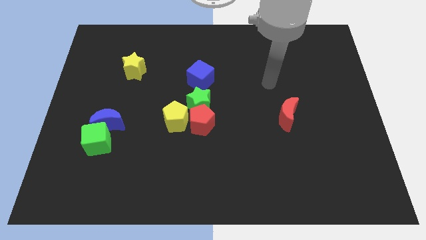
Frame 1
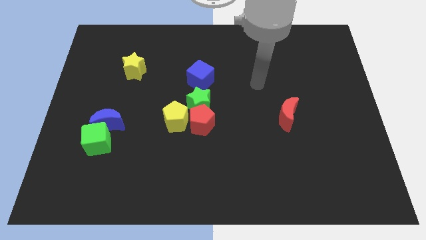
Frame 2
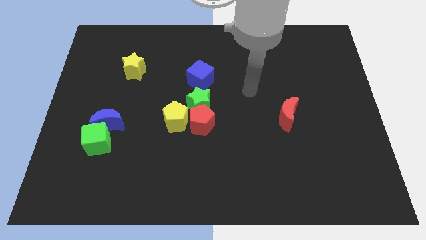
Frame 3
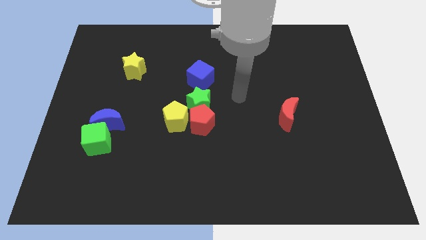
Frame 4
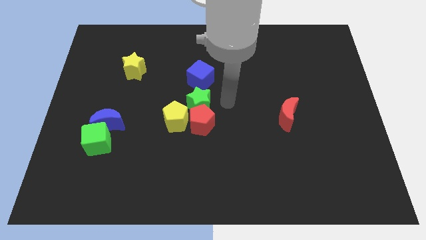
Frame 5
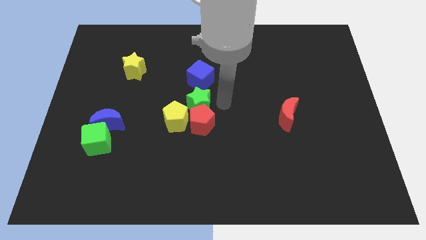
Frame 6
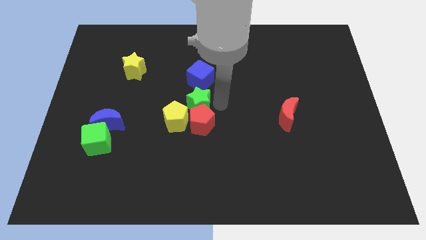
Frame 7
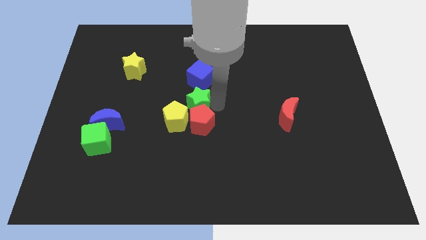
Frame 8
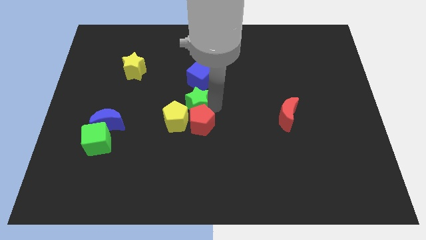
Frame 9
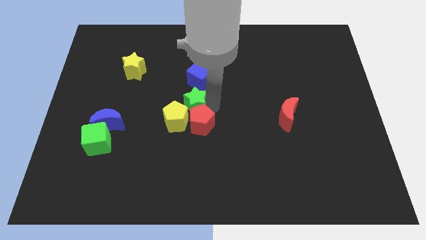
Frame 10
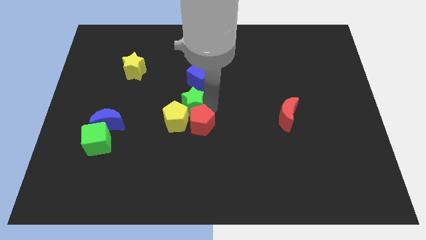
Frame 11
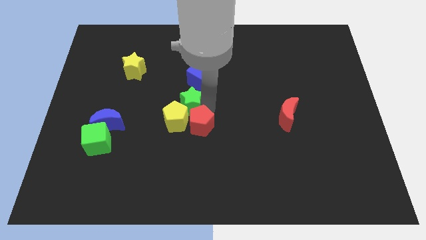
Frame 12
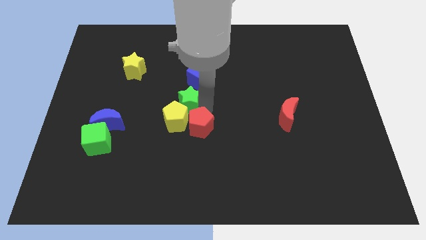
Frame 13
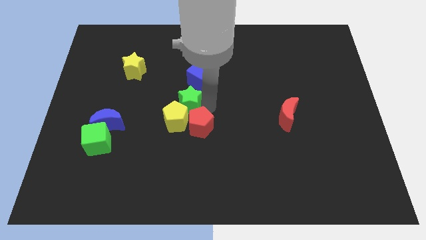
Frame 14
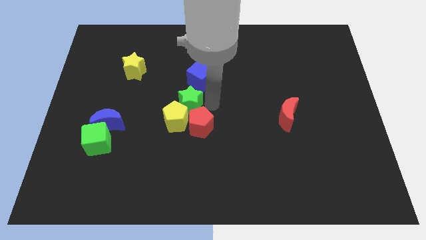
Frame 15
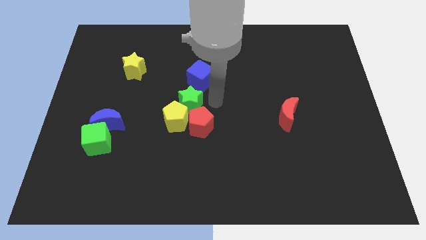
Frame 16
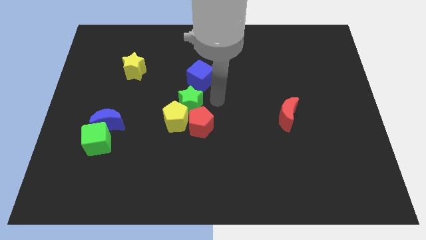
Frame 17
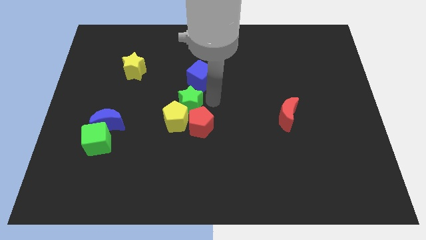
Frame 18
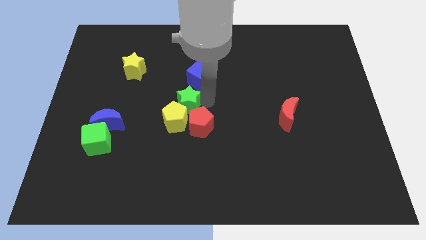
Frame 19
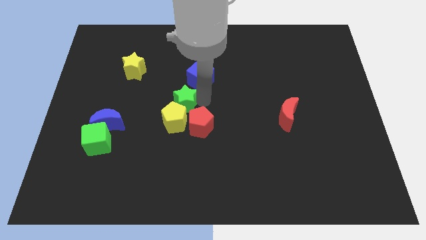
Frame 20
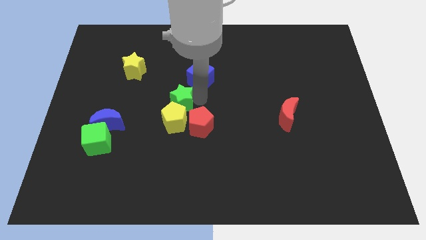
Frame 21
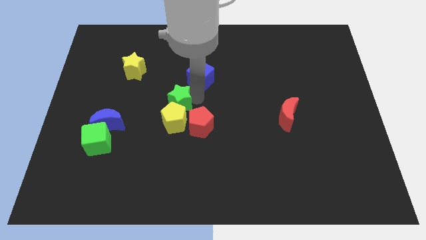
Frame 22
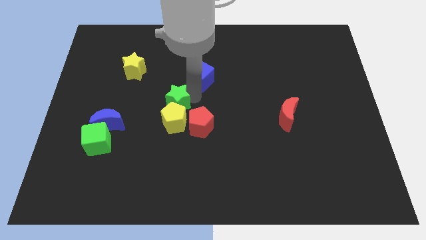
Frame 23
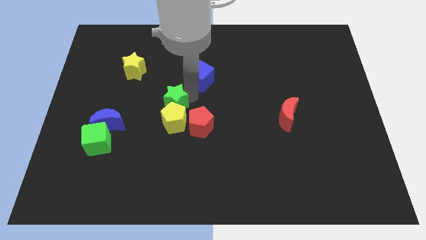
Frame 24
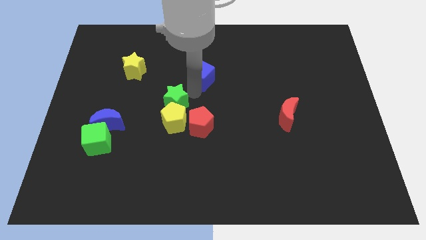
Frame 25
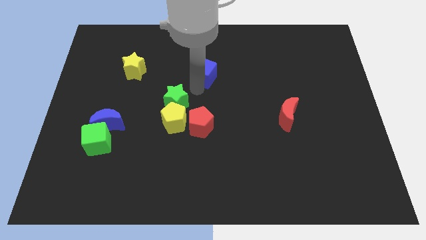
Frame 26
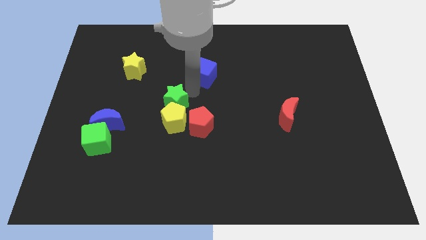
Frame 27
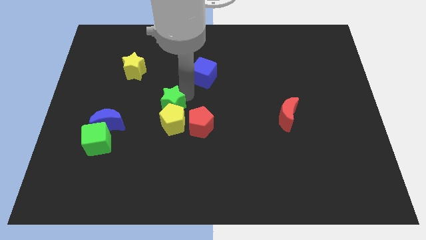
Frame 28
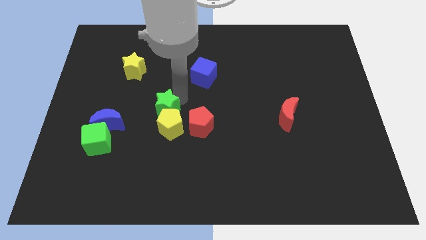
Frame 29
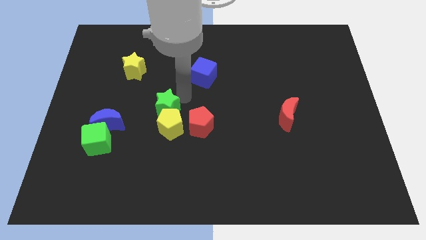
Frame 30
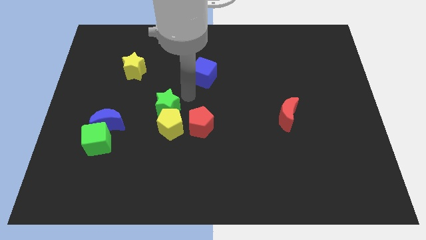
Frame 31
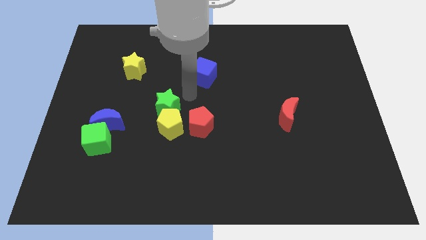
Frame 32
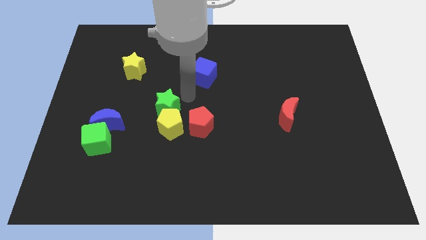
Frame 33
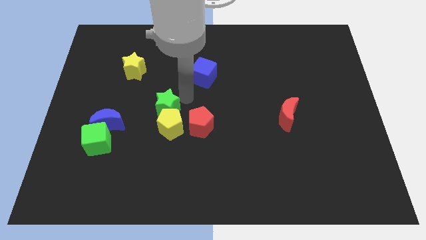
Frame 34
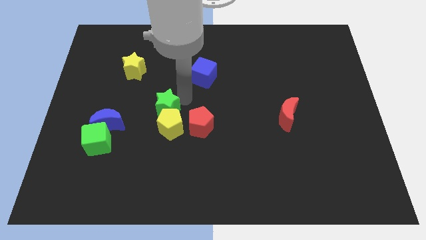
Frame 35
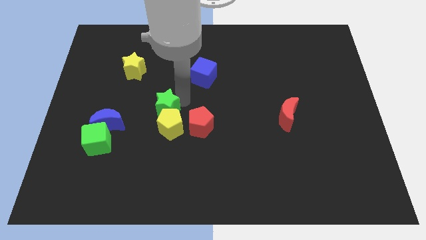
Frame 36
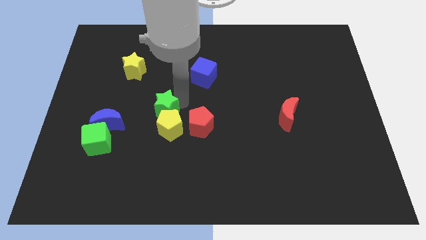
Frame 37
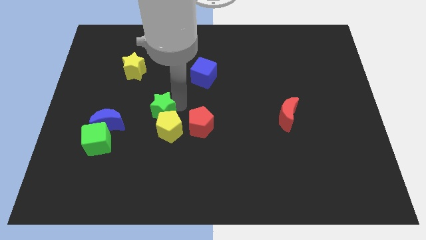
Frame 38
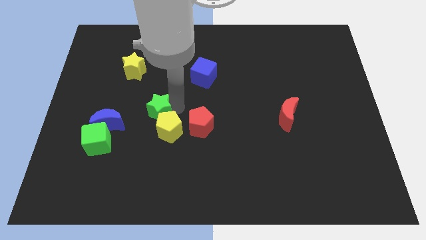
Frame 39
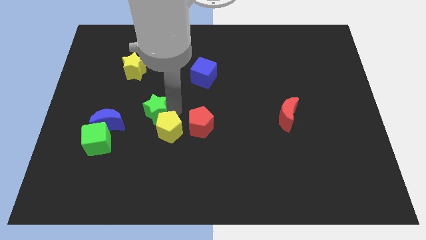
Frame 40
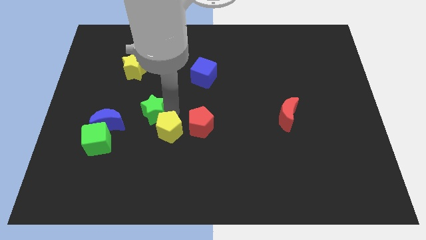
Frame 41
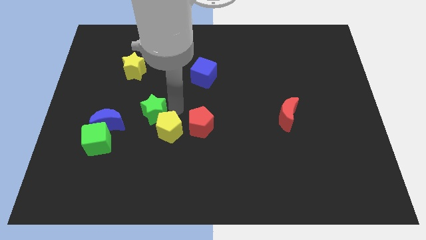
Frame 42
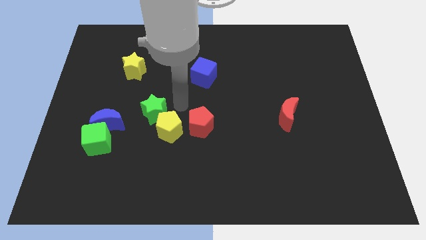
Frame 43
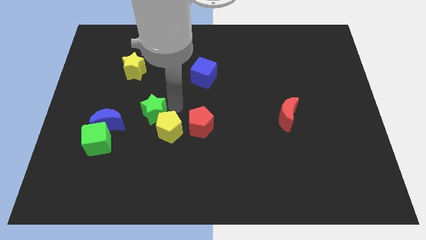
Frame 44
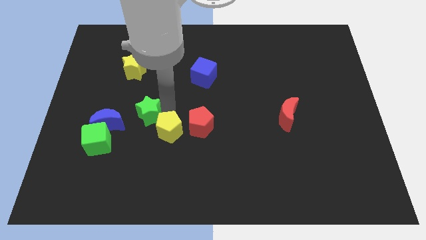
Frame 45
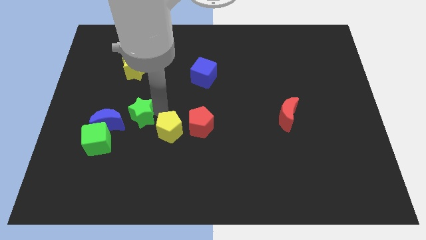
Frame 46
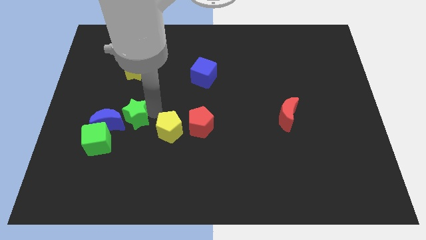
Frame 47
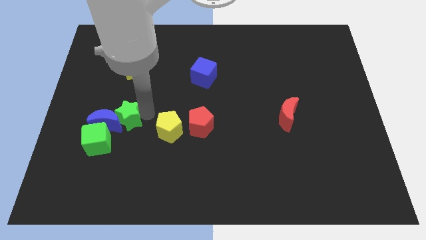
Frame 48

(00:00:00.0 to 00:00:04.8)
move the green star close to the blue moon

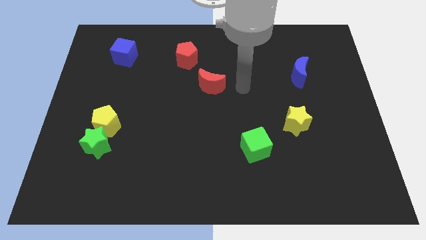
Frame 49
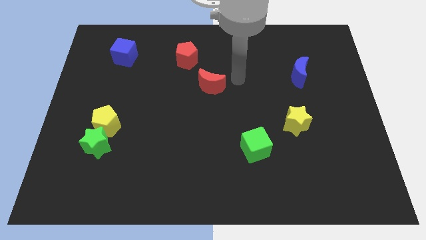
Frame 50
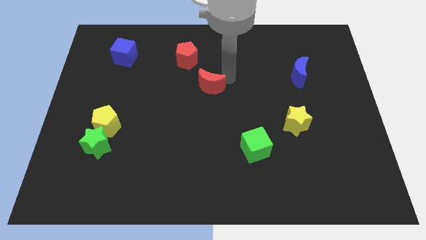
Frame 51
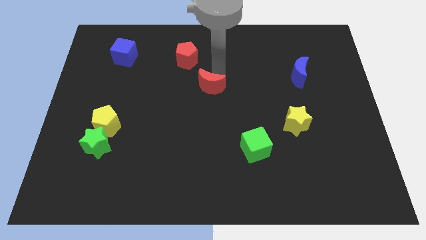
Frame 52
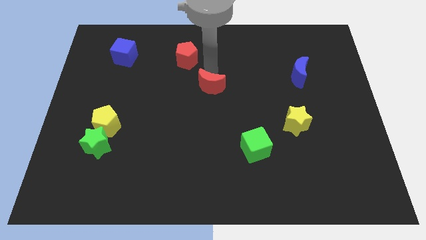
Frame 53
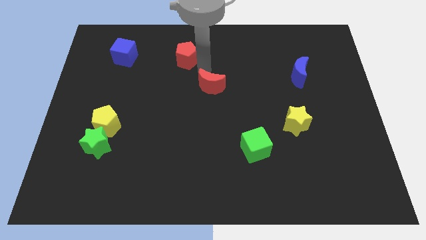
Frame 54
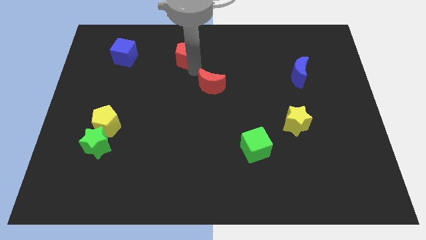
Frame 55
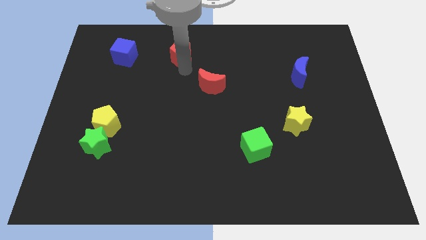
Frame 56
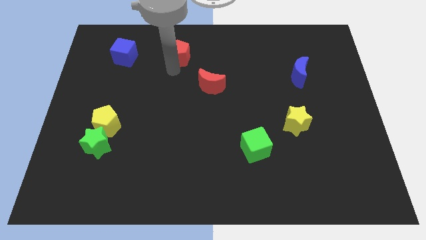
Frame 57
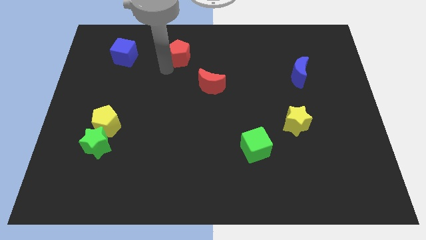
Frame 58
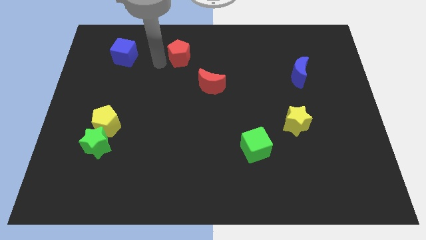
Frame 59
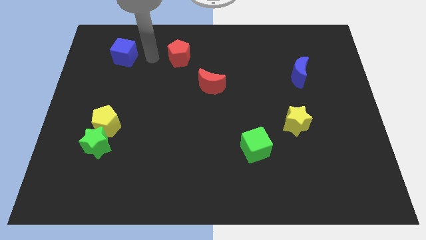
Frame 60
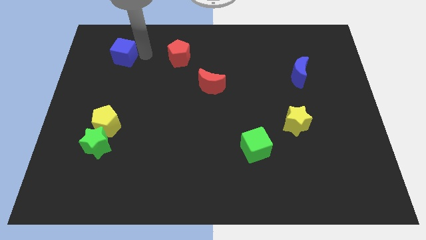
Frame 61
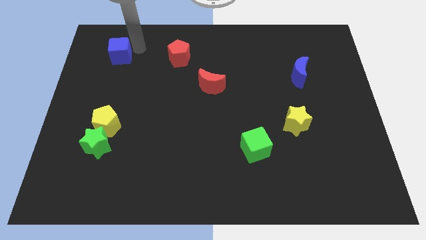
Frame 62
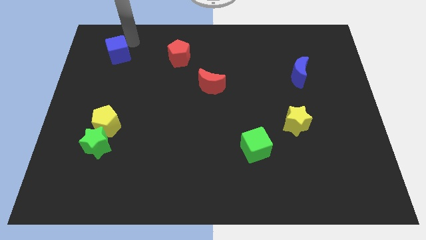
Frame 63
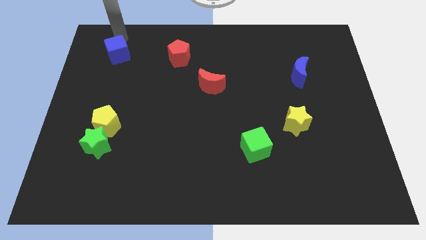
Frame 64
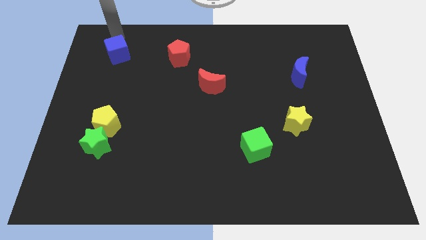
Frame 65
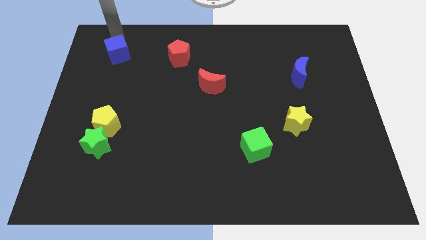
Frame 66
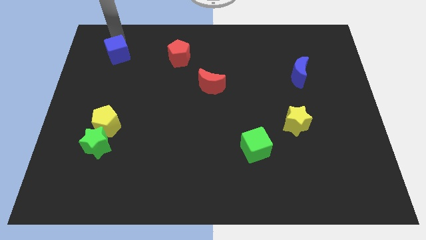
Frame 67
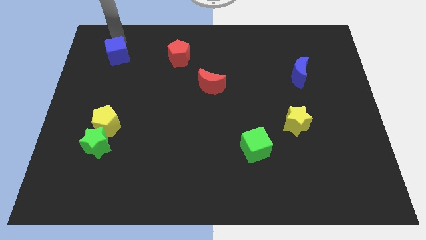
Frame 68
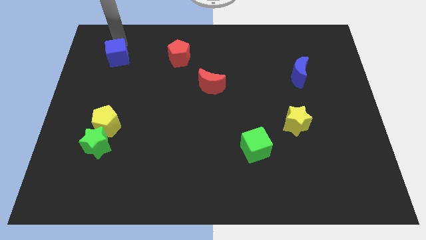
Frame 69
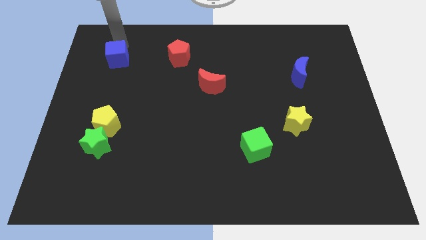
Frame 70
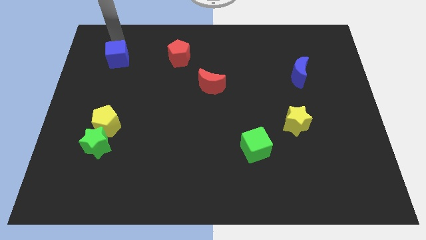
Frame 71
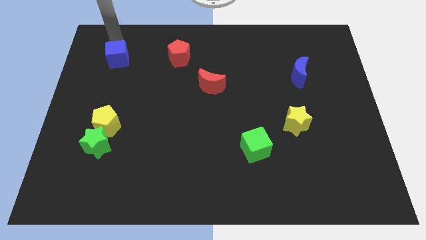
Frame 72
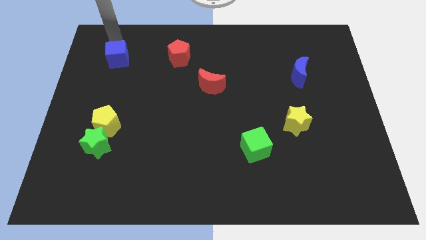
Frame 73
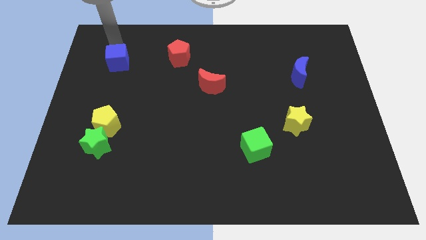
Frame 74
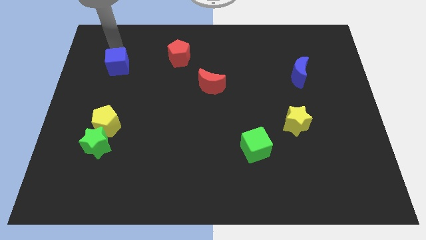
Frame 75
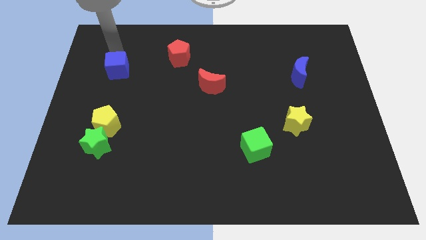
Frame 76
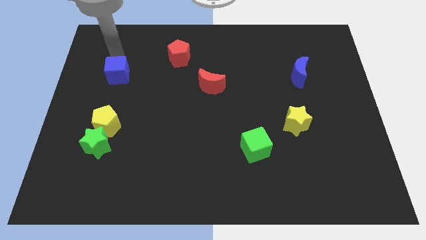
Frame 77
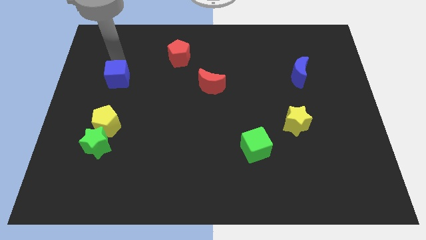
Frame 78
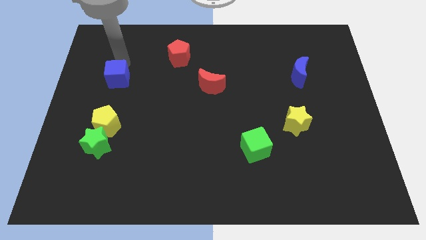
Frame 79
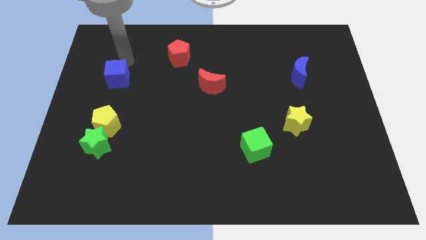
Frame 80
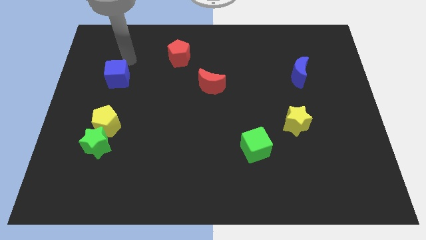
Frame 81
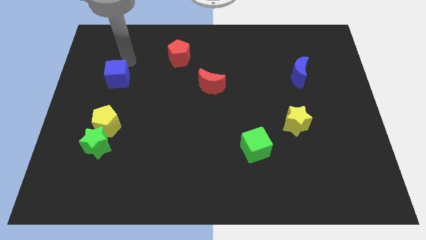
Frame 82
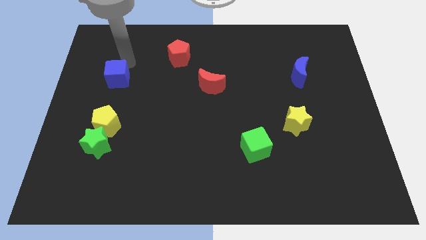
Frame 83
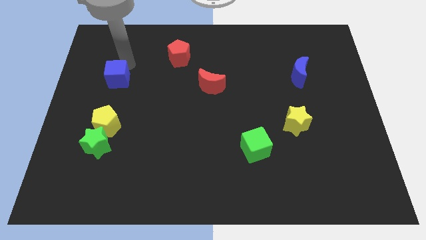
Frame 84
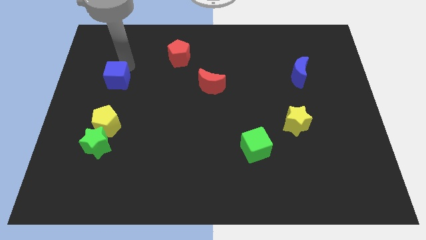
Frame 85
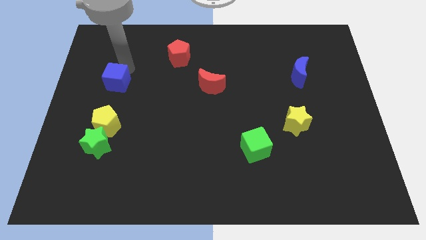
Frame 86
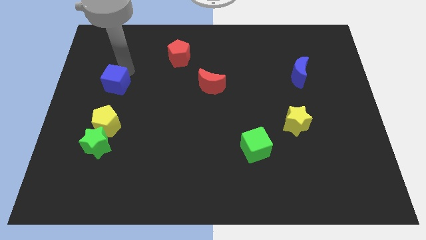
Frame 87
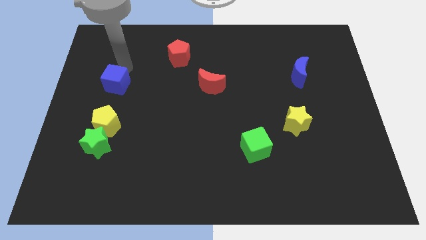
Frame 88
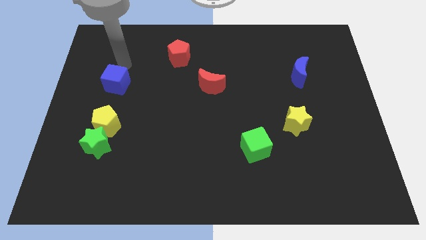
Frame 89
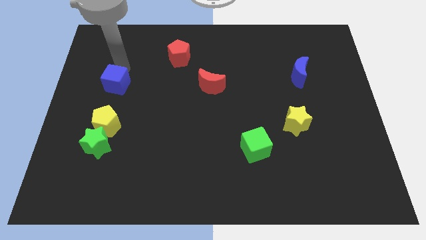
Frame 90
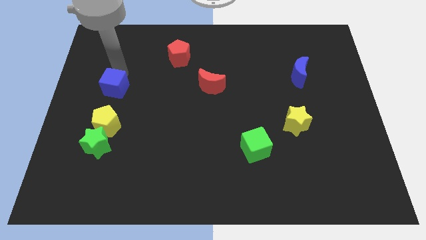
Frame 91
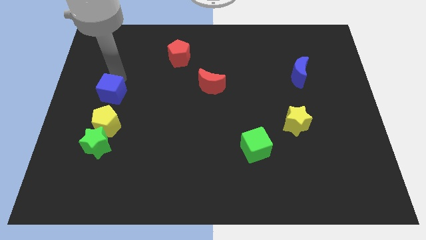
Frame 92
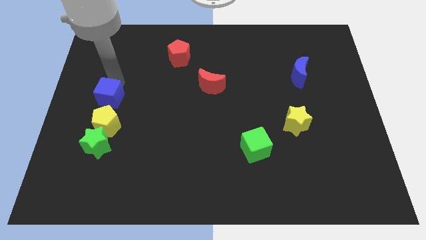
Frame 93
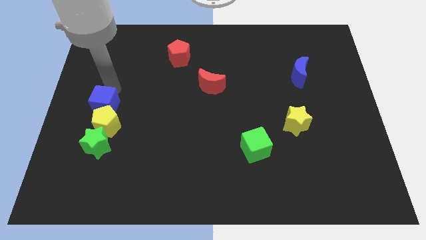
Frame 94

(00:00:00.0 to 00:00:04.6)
move the blue cube towards the yellow pentagon
